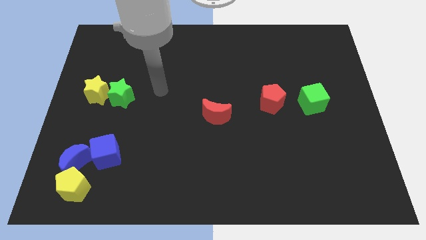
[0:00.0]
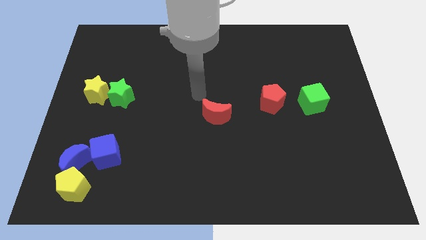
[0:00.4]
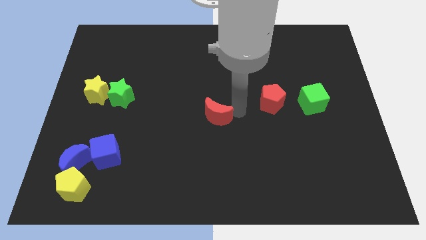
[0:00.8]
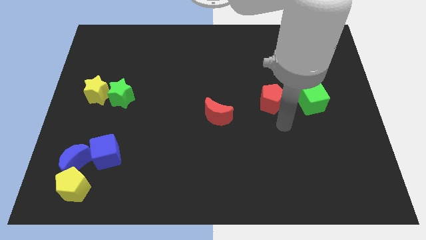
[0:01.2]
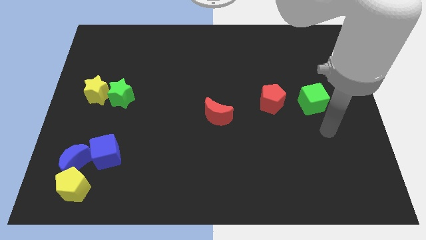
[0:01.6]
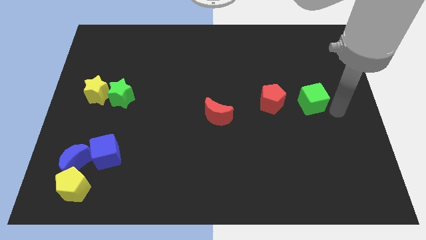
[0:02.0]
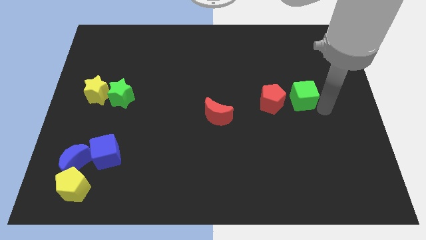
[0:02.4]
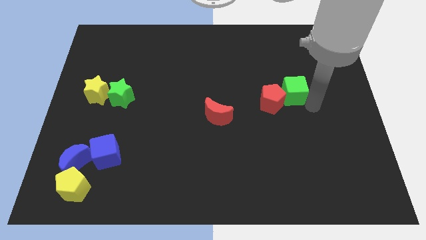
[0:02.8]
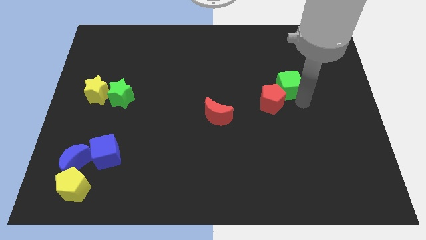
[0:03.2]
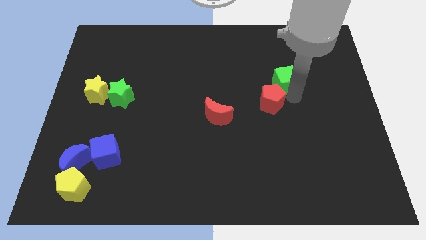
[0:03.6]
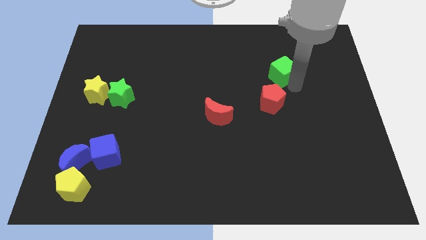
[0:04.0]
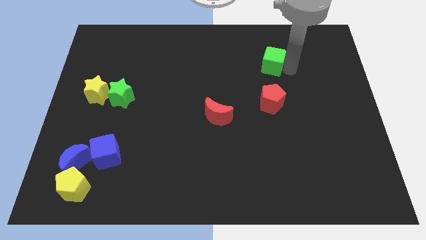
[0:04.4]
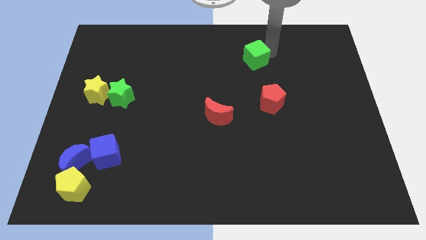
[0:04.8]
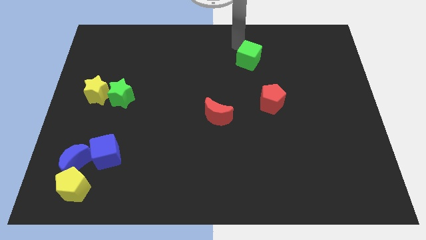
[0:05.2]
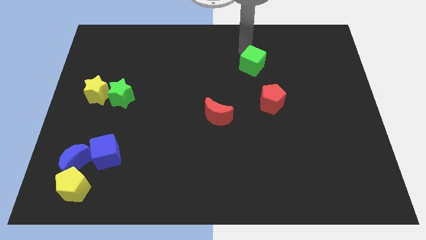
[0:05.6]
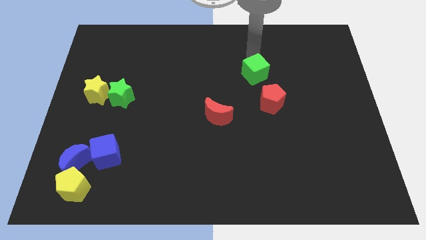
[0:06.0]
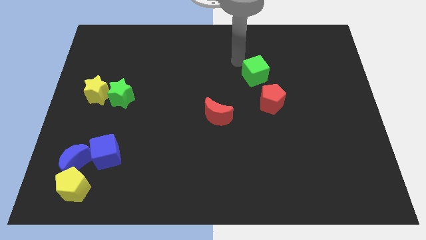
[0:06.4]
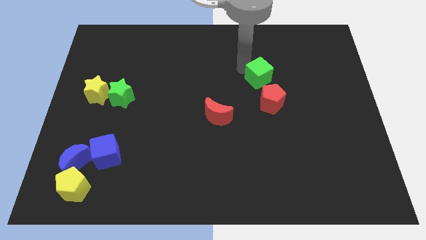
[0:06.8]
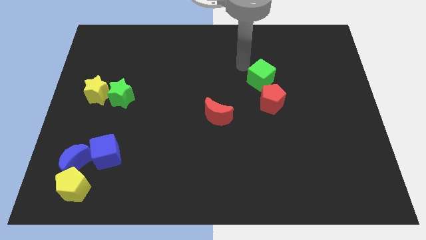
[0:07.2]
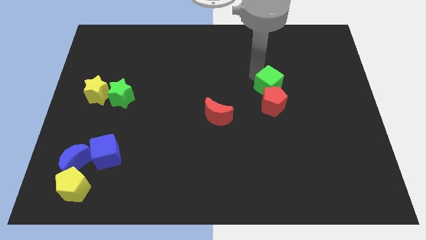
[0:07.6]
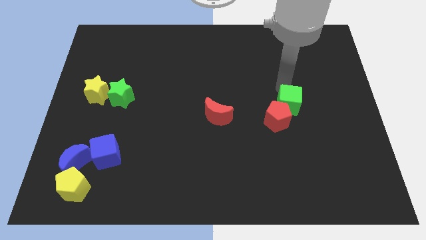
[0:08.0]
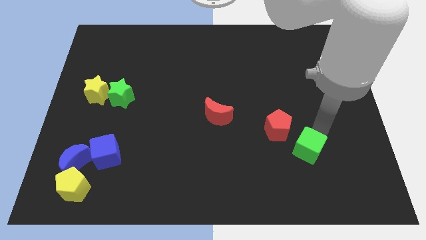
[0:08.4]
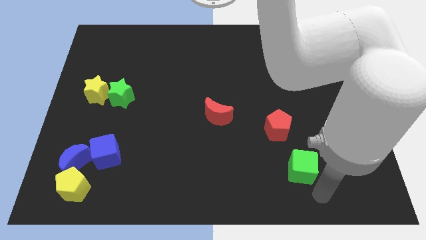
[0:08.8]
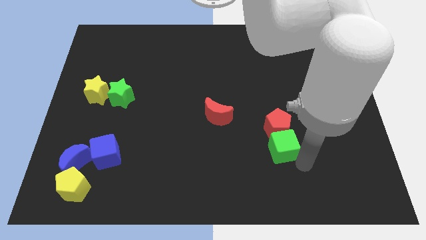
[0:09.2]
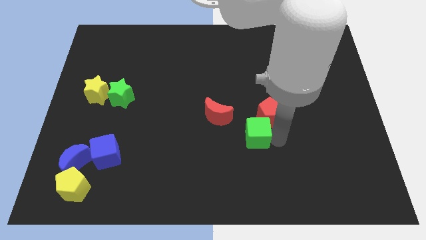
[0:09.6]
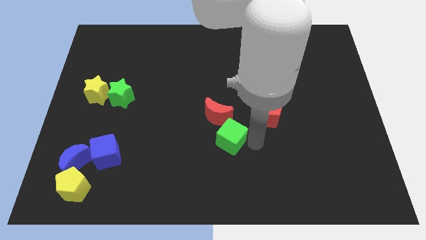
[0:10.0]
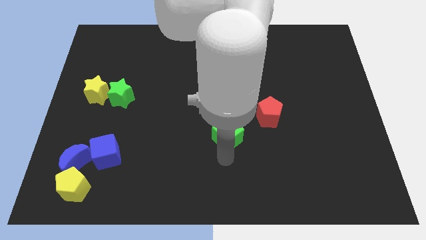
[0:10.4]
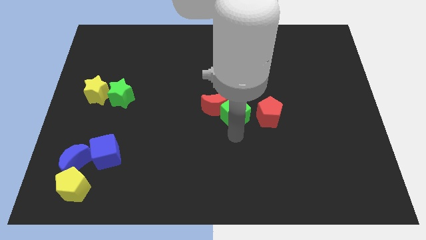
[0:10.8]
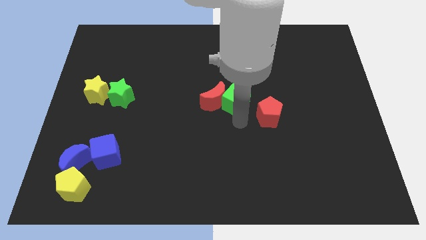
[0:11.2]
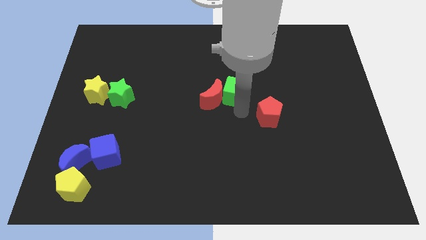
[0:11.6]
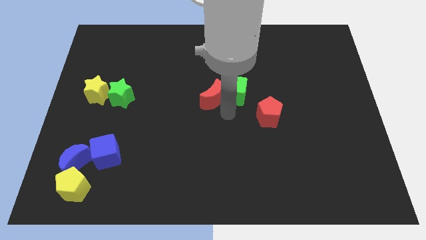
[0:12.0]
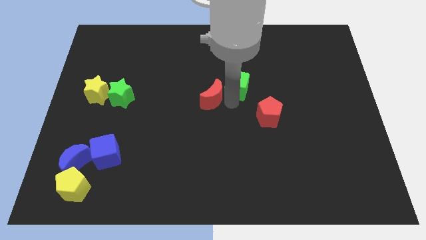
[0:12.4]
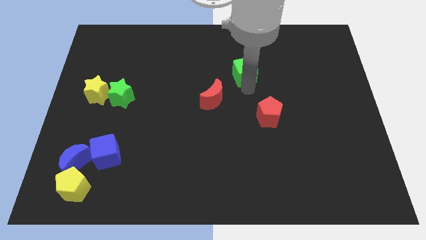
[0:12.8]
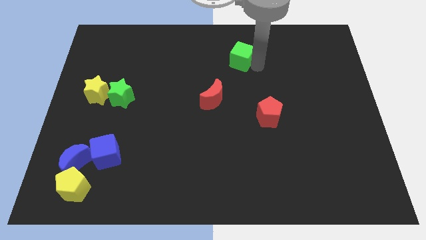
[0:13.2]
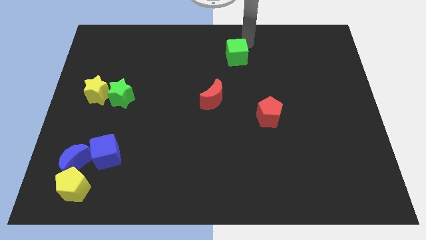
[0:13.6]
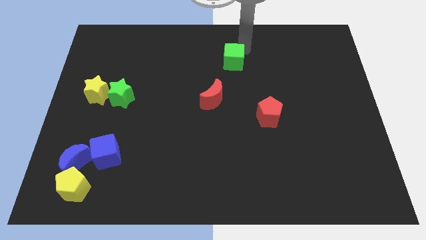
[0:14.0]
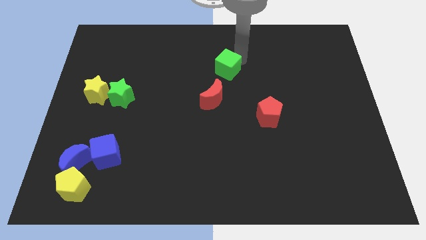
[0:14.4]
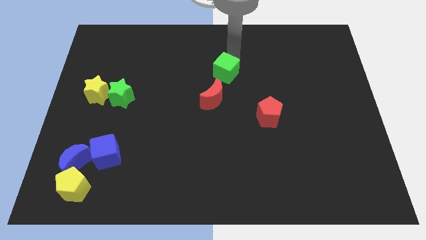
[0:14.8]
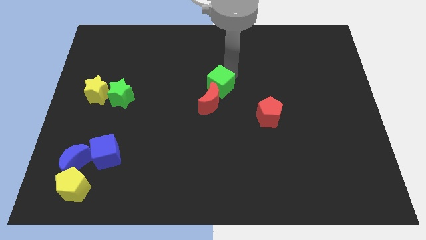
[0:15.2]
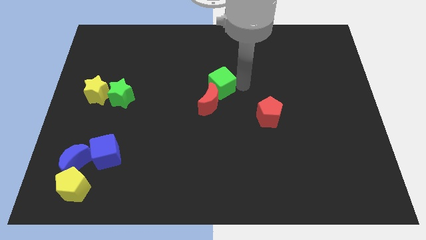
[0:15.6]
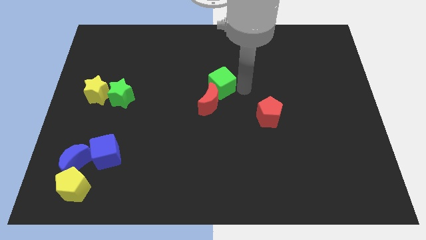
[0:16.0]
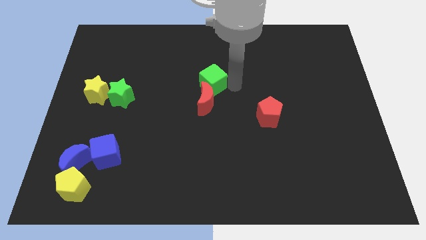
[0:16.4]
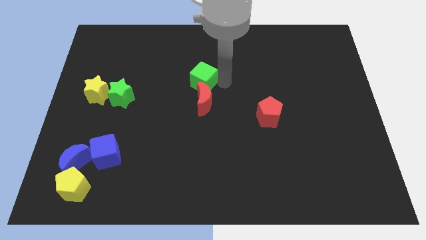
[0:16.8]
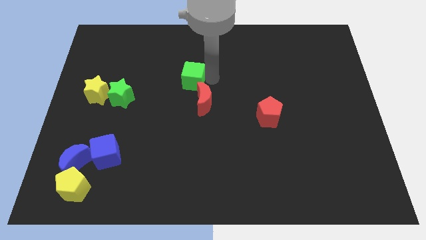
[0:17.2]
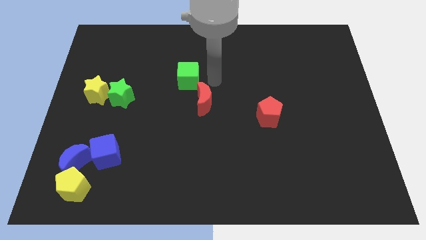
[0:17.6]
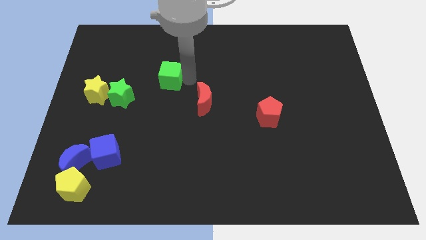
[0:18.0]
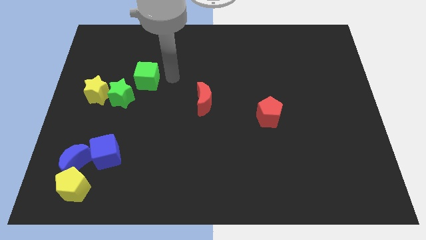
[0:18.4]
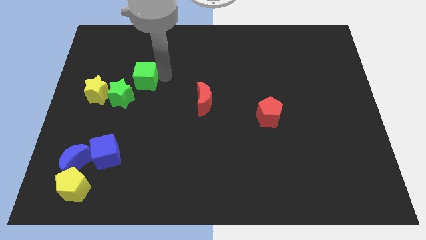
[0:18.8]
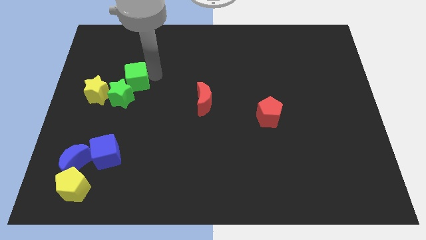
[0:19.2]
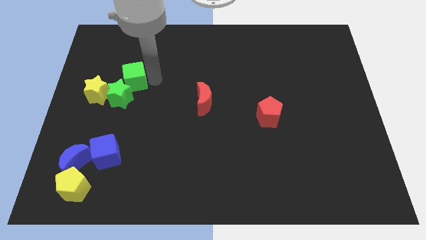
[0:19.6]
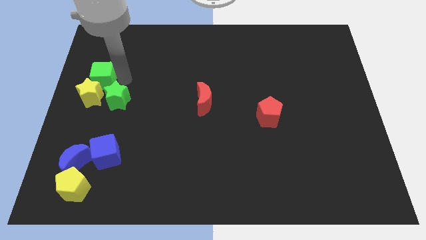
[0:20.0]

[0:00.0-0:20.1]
move the green cube to the center left

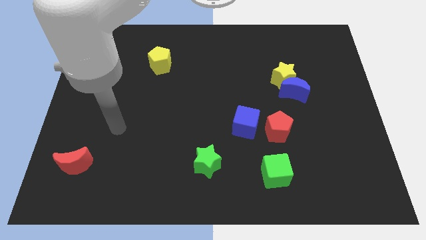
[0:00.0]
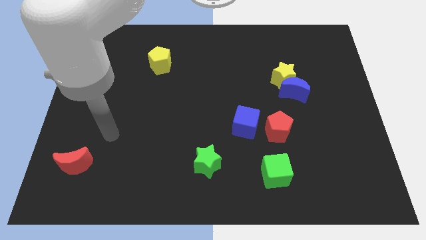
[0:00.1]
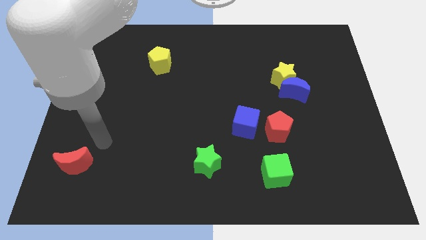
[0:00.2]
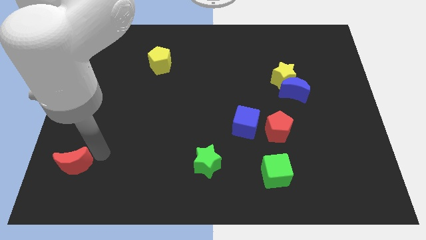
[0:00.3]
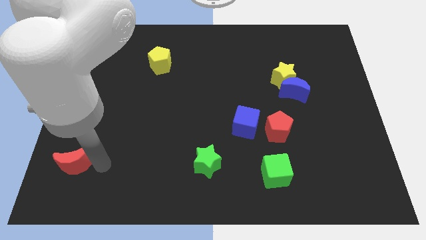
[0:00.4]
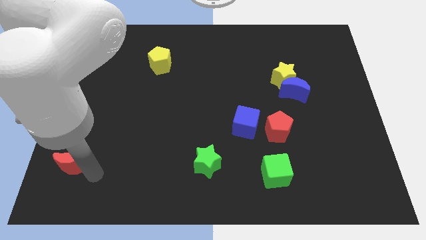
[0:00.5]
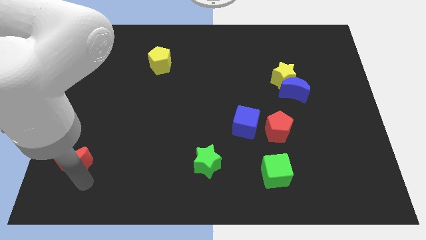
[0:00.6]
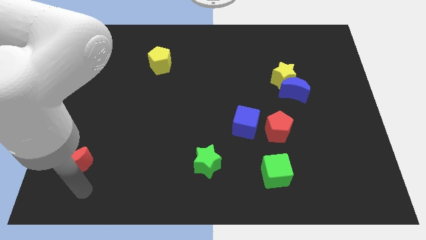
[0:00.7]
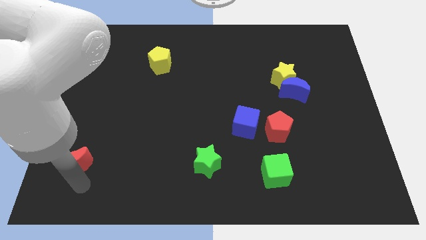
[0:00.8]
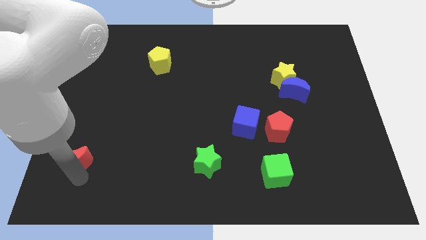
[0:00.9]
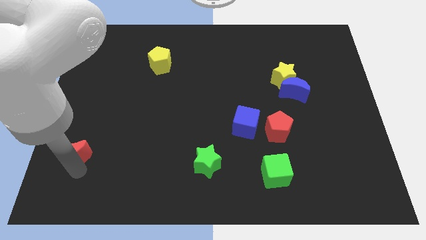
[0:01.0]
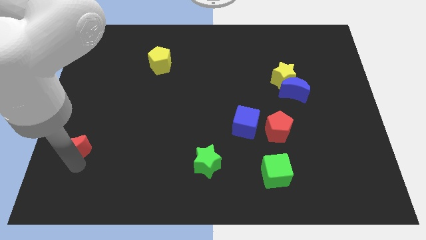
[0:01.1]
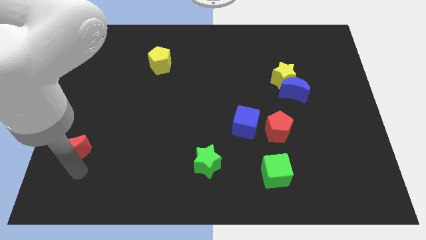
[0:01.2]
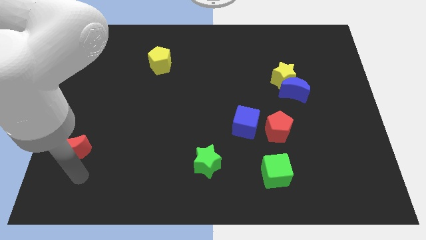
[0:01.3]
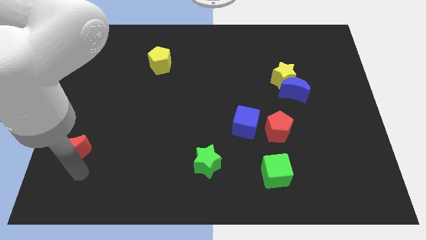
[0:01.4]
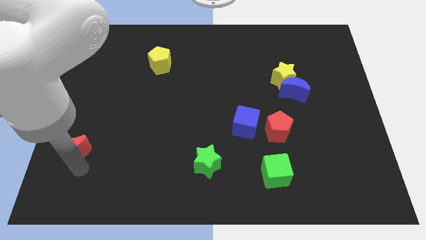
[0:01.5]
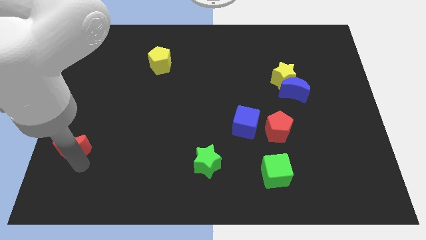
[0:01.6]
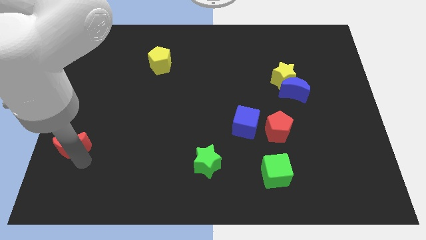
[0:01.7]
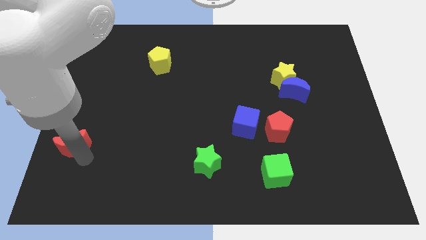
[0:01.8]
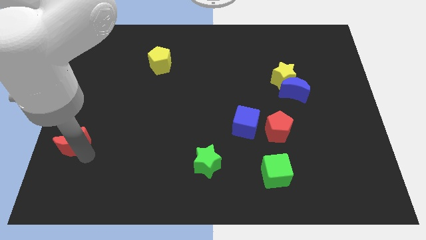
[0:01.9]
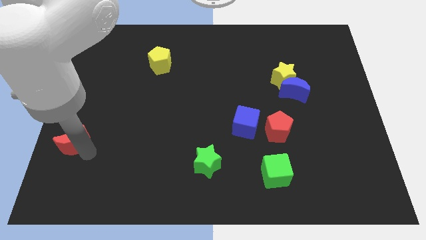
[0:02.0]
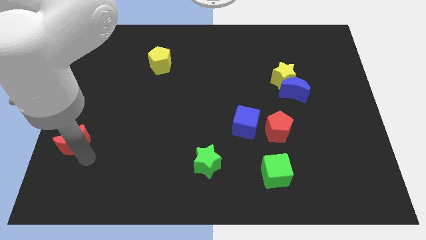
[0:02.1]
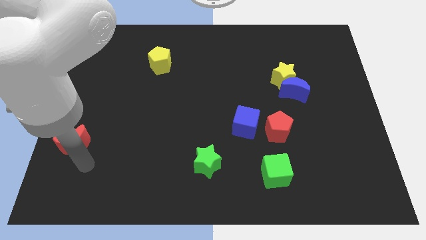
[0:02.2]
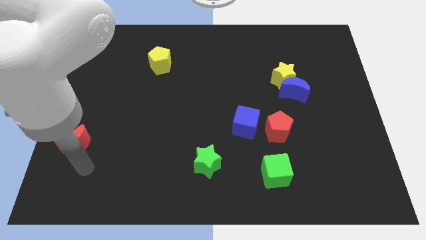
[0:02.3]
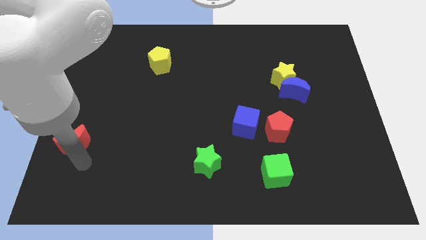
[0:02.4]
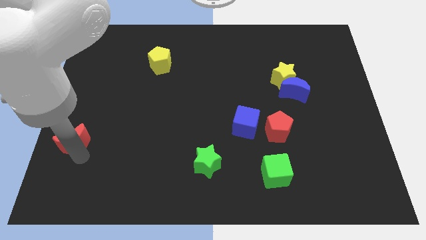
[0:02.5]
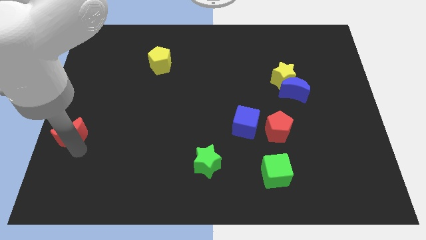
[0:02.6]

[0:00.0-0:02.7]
slide the red moon to the center left
